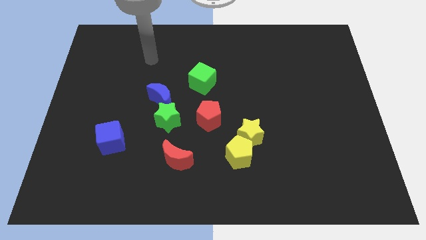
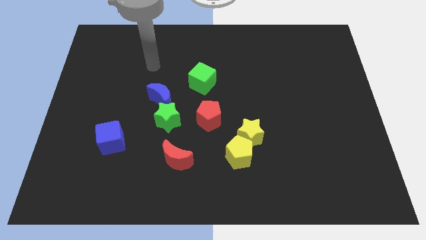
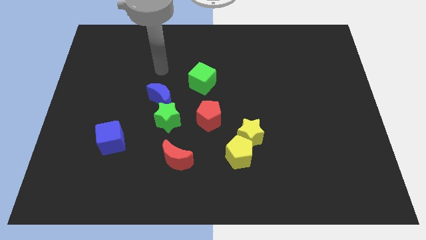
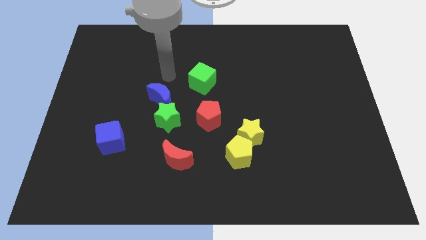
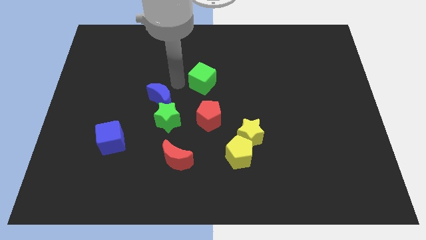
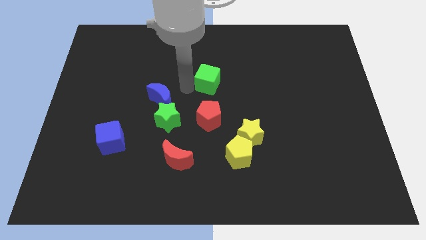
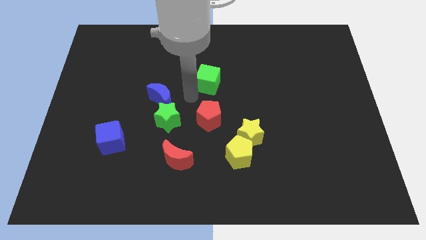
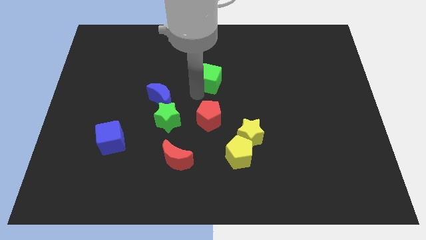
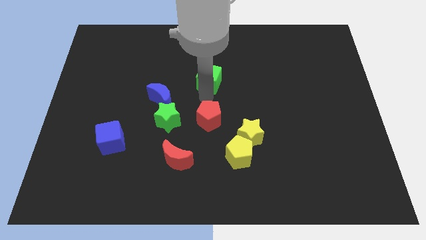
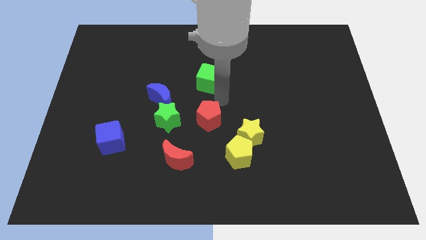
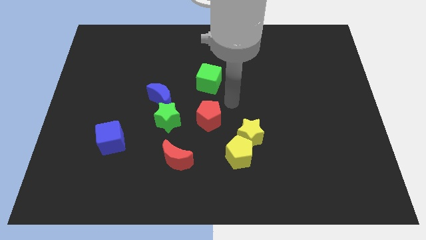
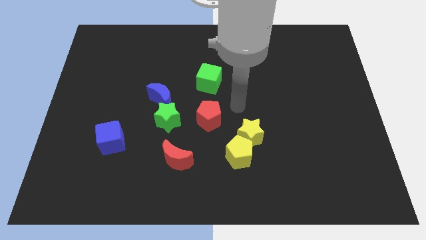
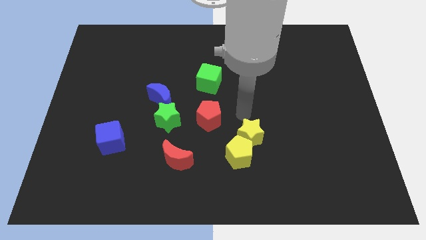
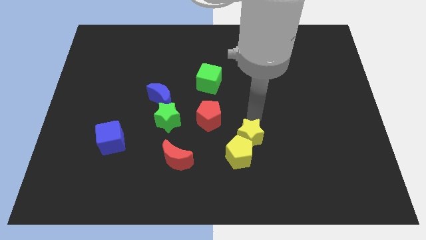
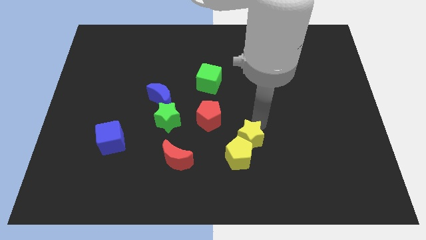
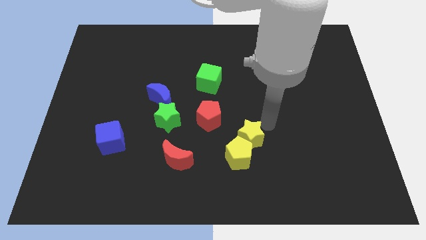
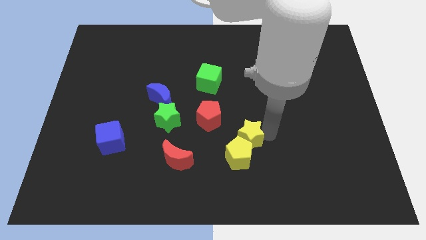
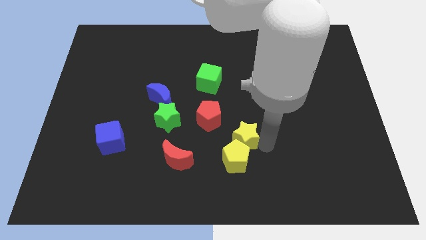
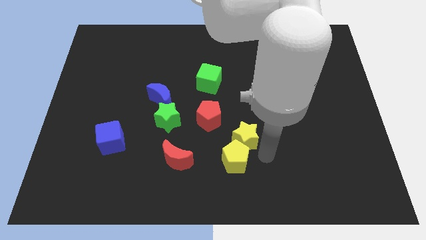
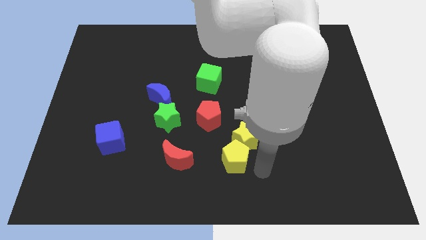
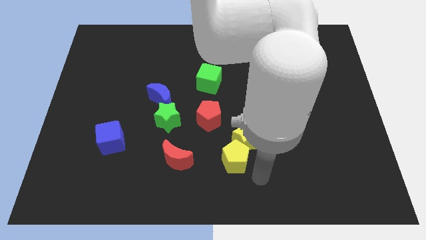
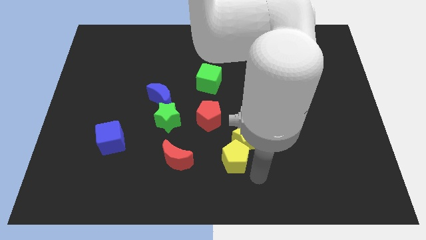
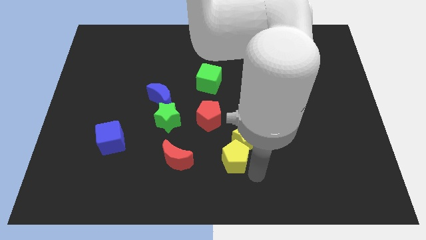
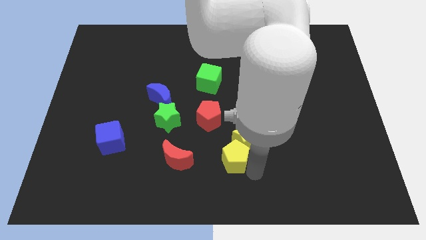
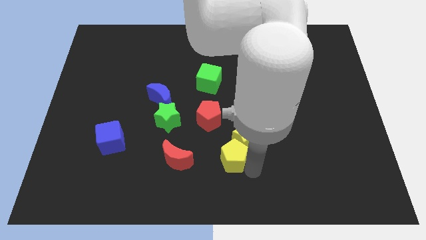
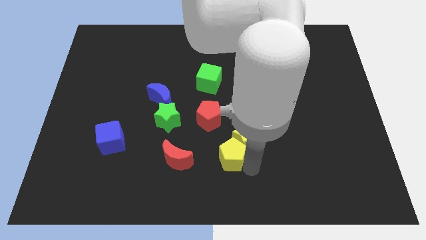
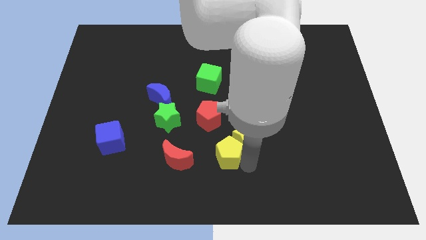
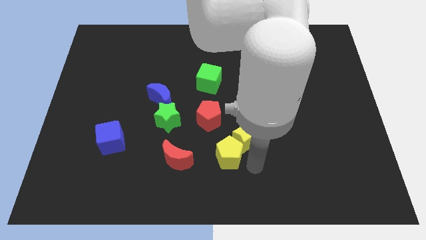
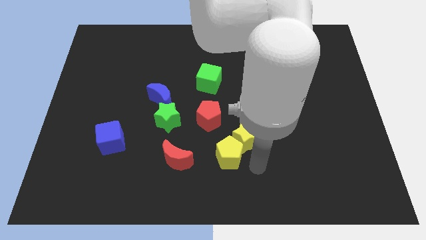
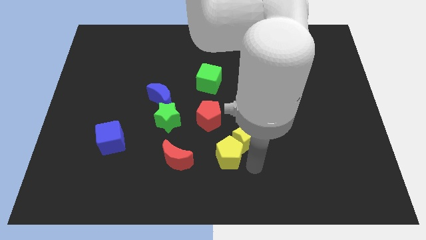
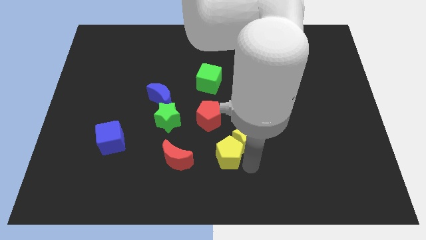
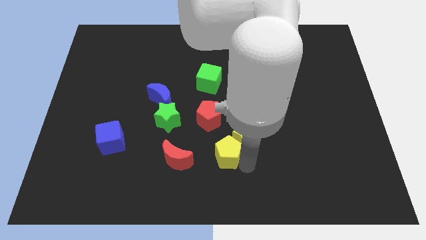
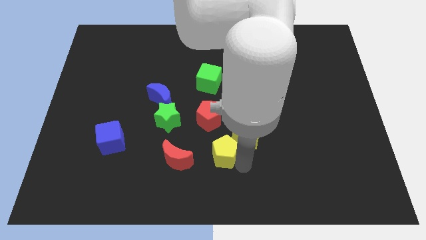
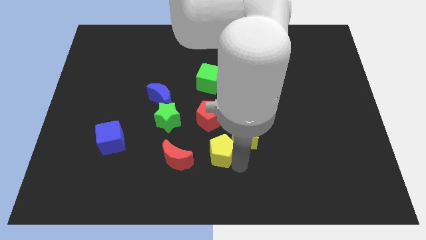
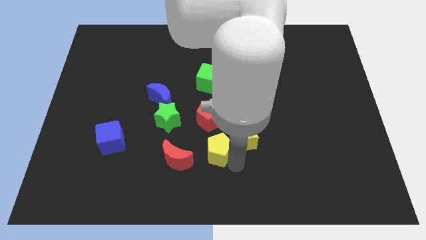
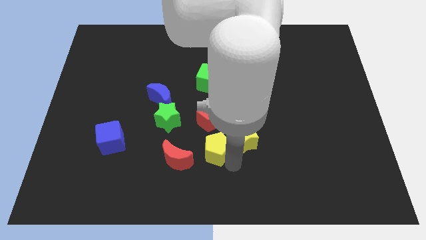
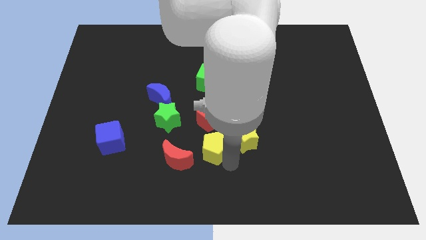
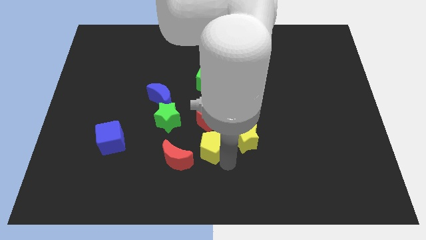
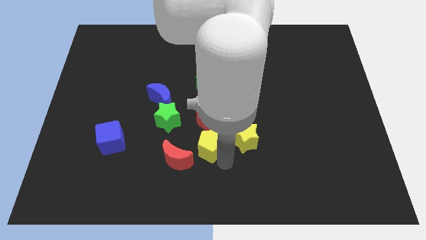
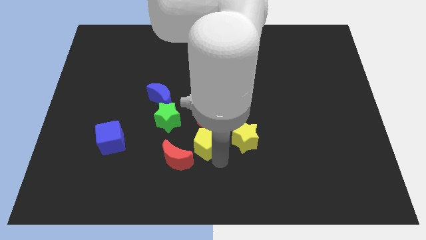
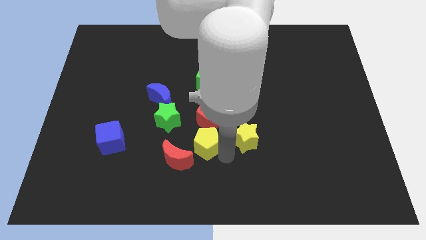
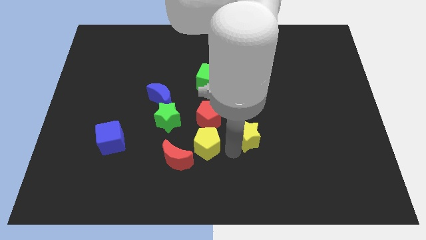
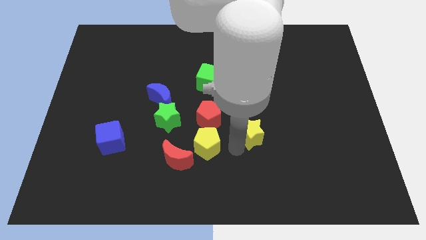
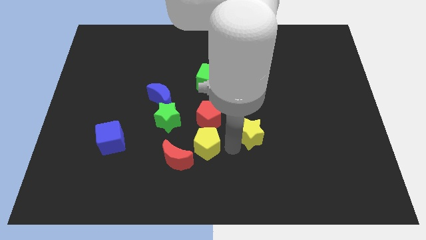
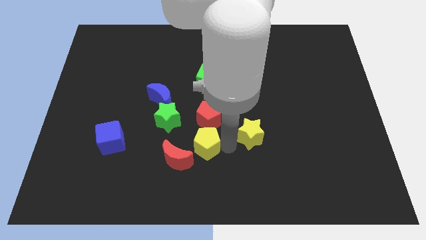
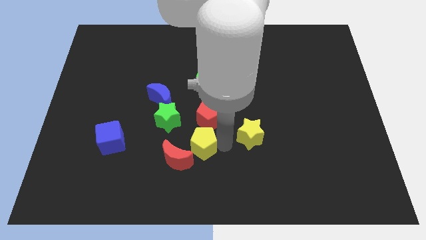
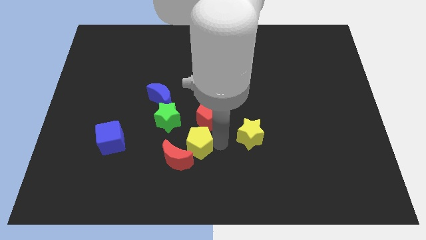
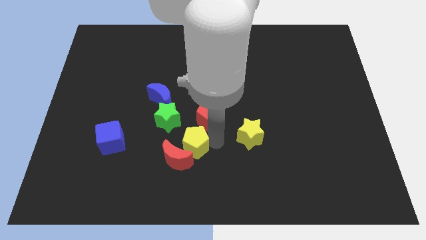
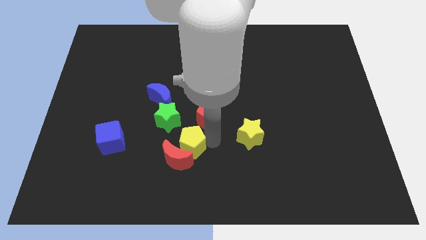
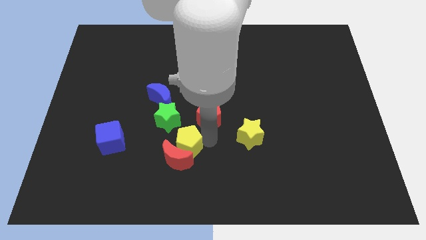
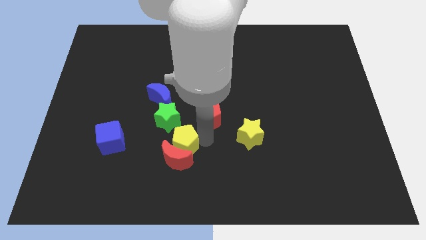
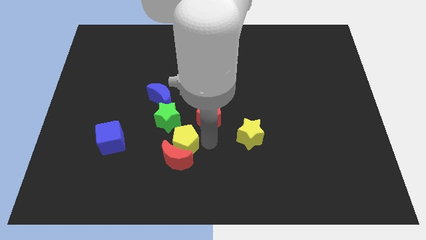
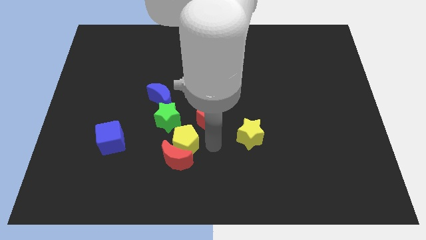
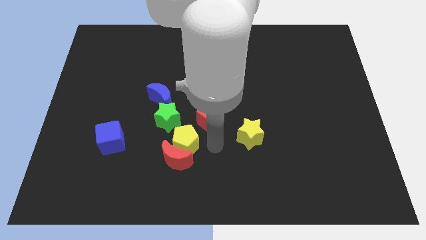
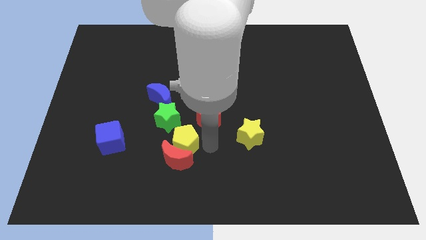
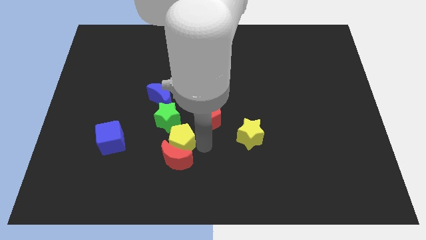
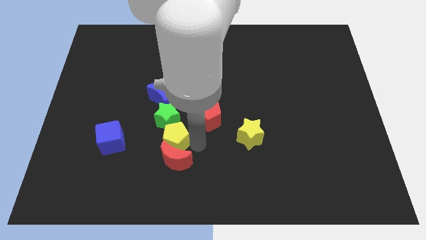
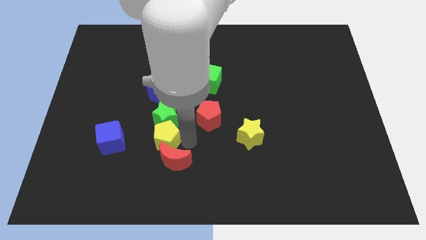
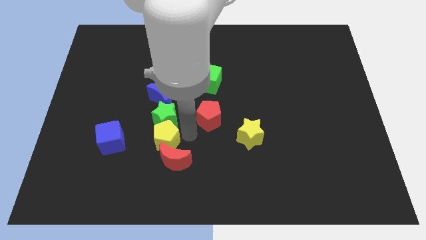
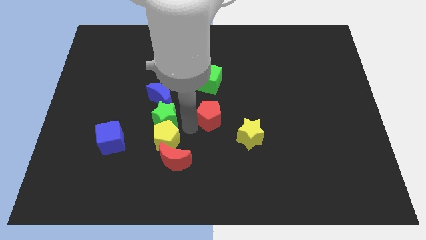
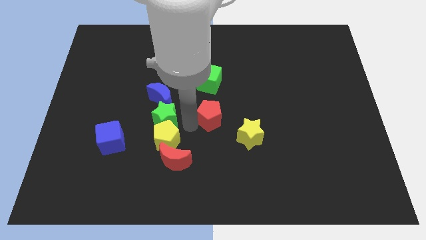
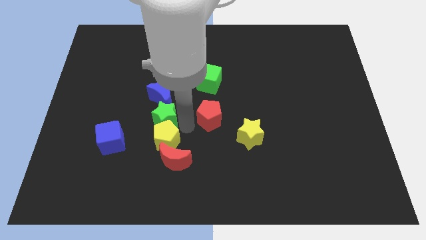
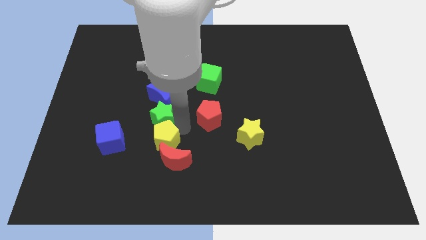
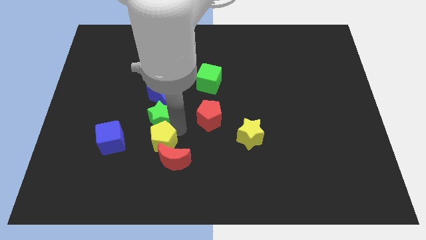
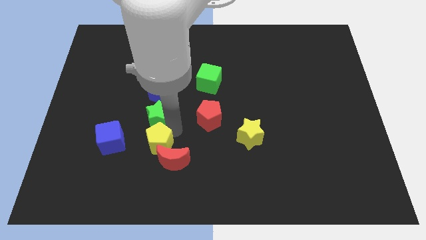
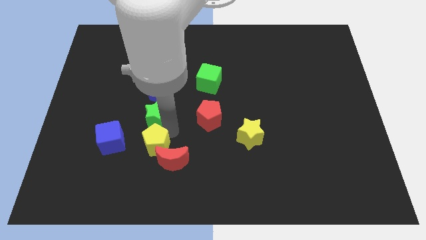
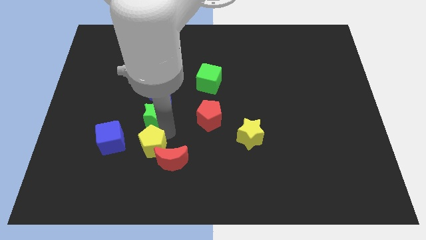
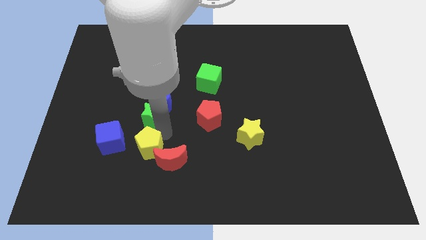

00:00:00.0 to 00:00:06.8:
move the yellow pentagon to the bottom right of the blue cube

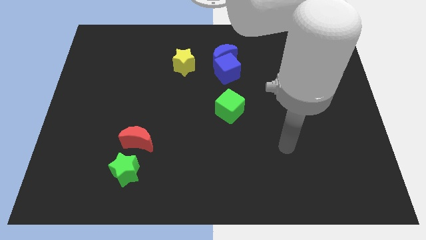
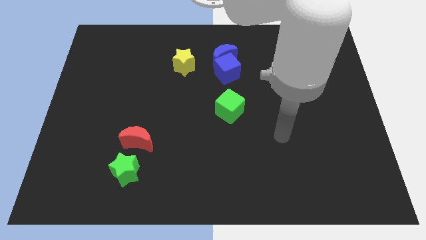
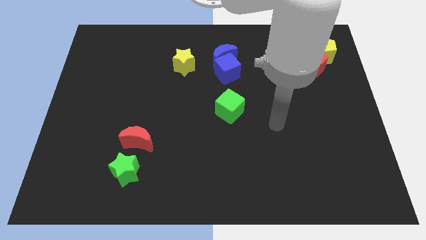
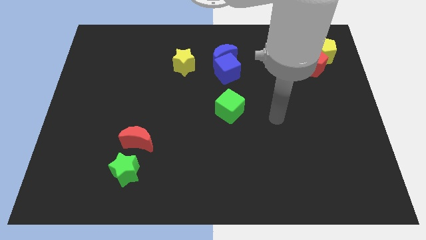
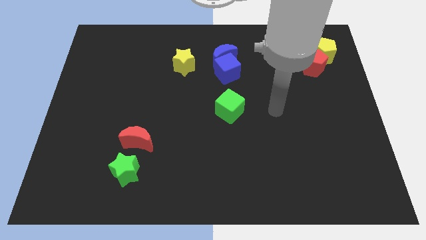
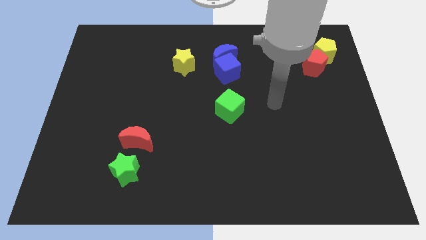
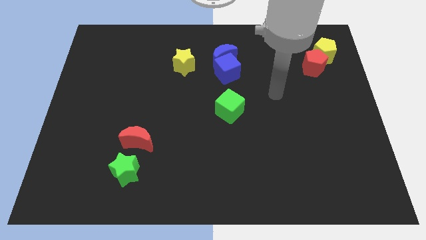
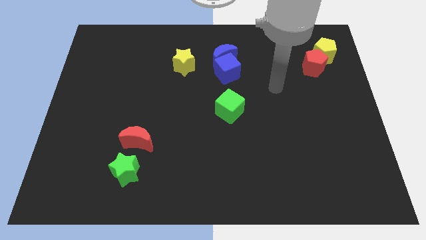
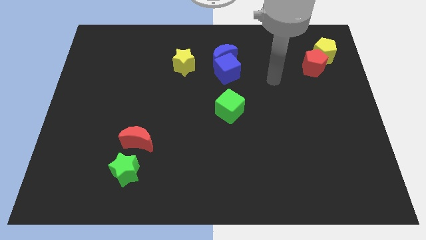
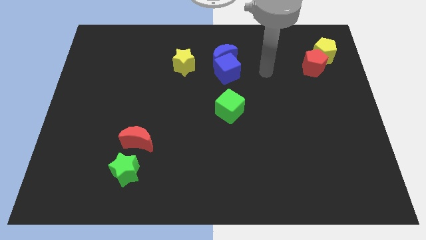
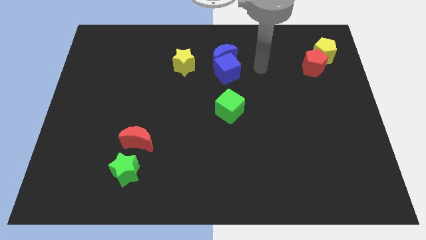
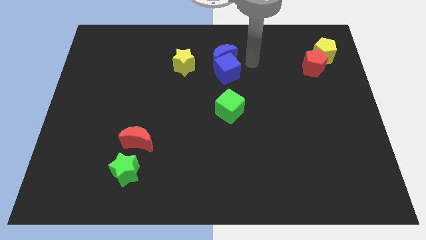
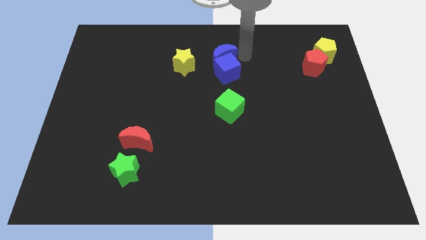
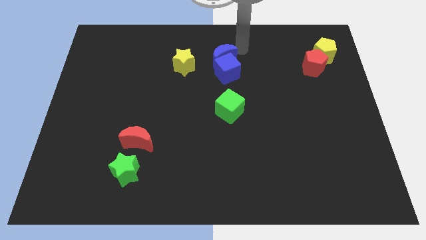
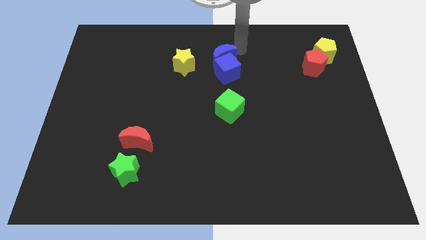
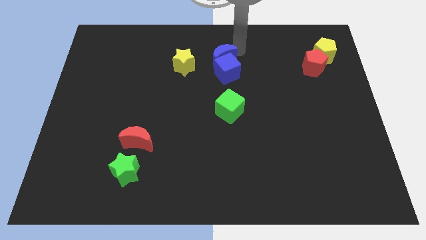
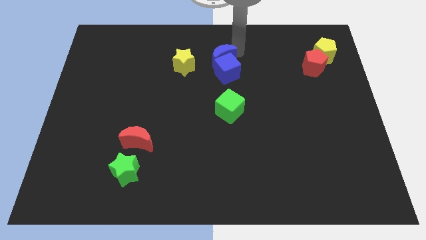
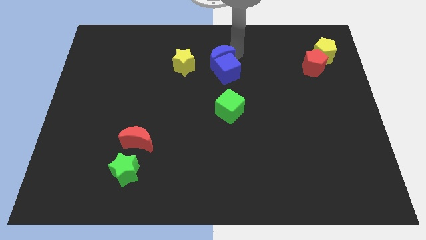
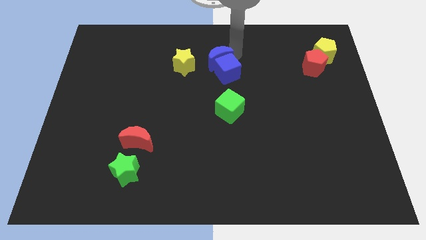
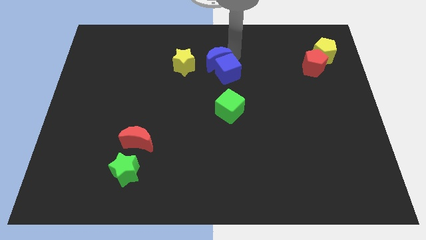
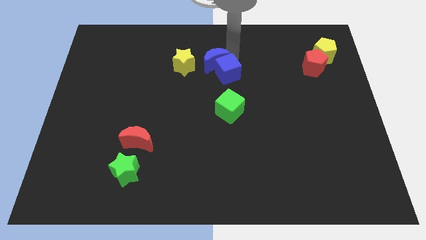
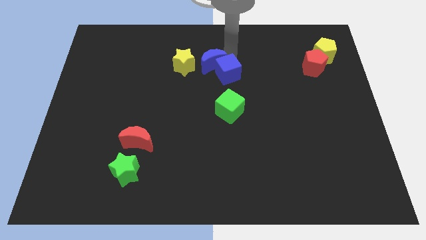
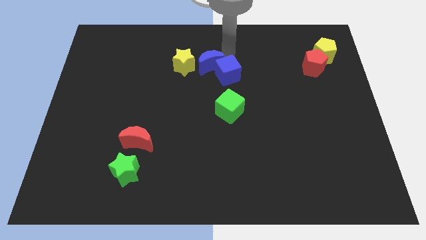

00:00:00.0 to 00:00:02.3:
slide the blue moon to the bottom right of the yellow star
